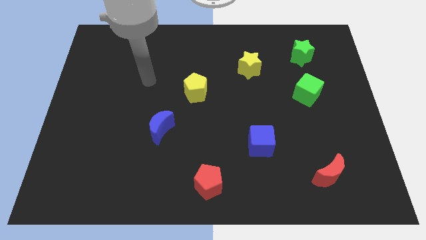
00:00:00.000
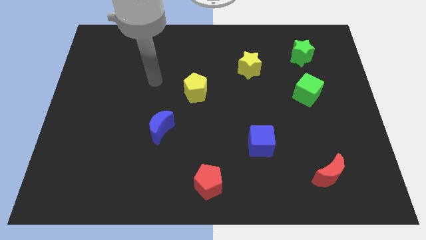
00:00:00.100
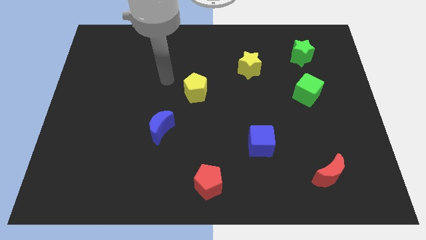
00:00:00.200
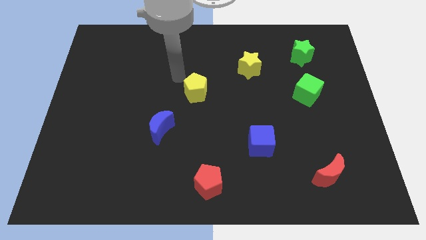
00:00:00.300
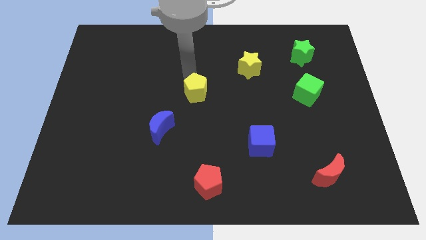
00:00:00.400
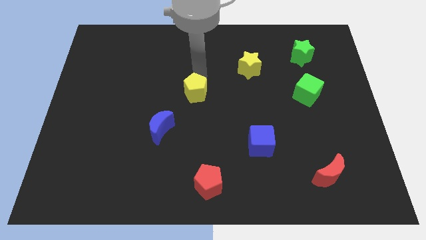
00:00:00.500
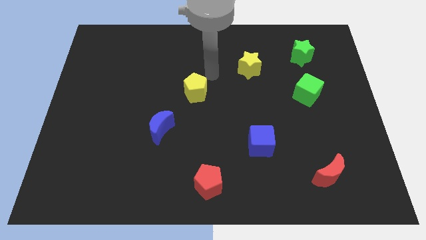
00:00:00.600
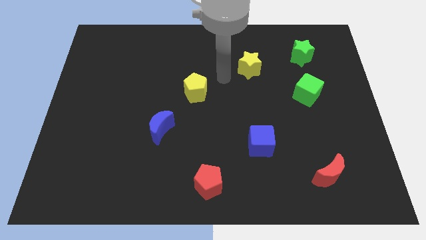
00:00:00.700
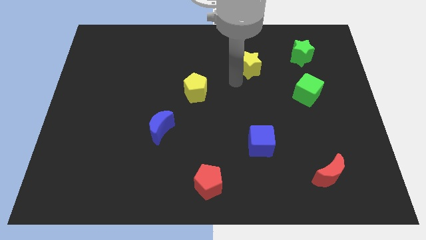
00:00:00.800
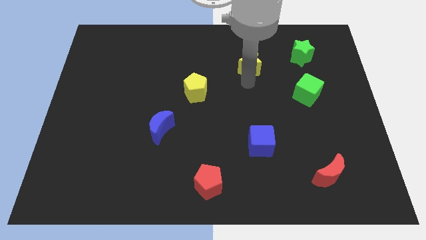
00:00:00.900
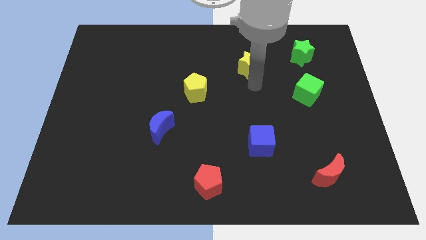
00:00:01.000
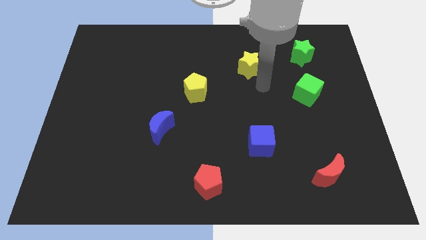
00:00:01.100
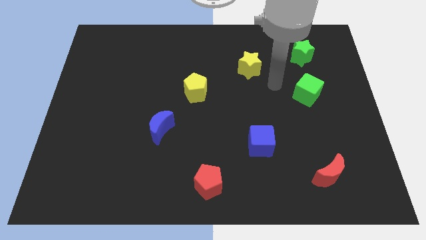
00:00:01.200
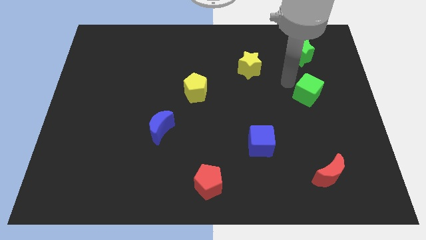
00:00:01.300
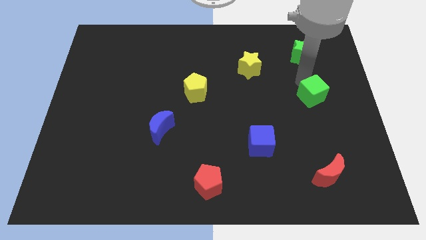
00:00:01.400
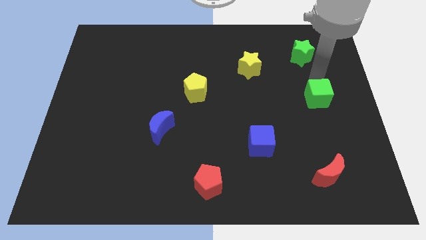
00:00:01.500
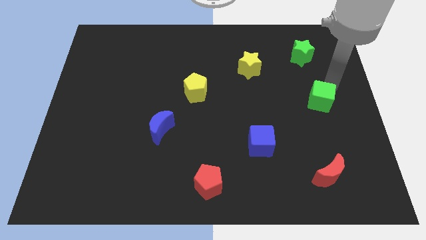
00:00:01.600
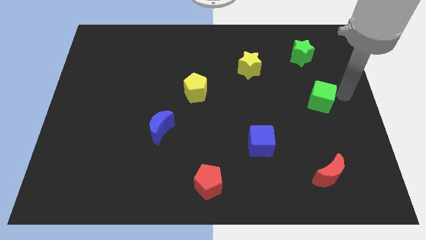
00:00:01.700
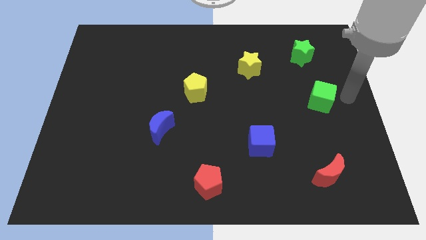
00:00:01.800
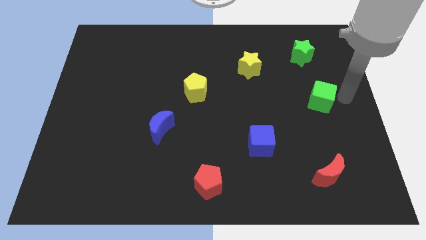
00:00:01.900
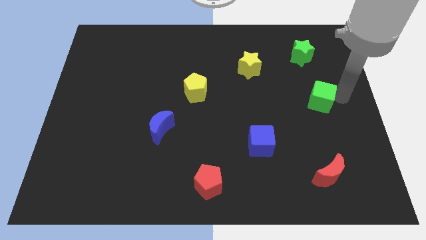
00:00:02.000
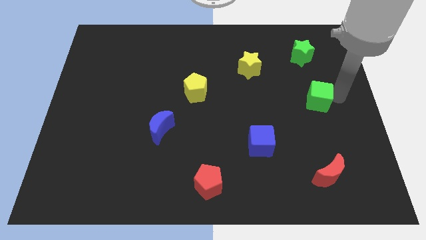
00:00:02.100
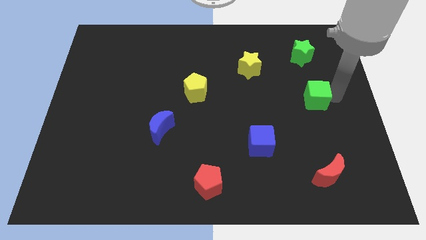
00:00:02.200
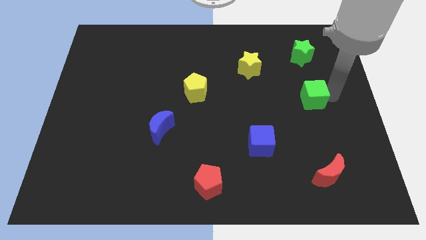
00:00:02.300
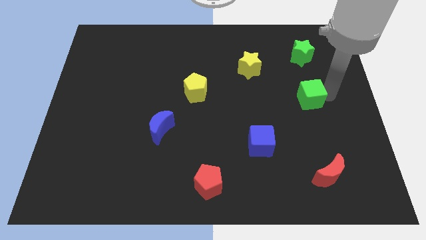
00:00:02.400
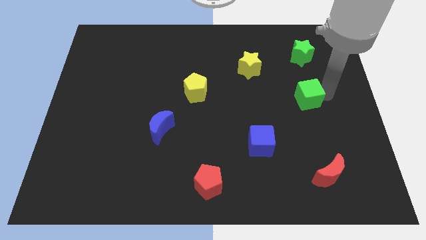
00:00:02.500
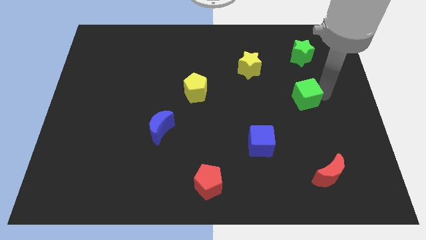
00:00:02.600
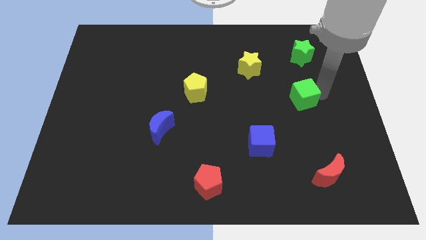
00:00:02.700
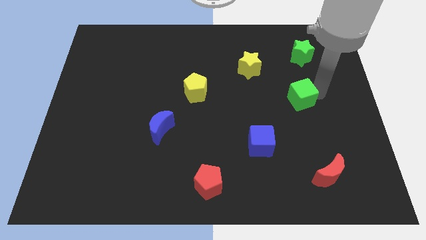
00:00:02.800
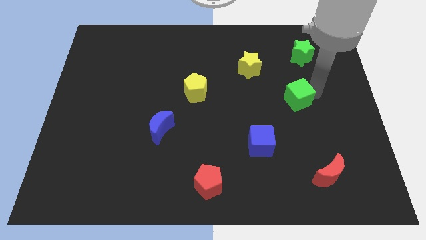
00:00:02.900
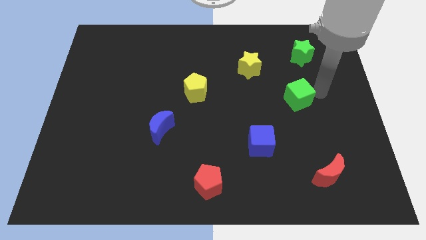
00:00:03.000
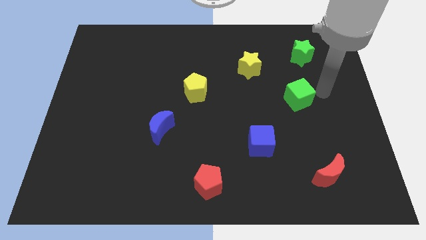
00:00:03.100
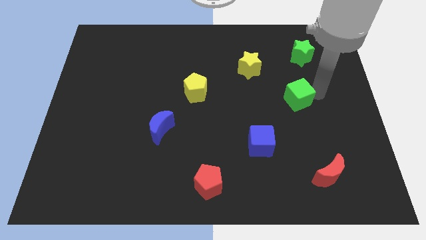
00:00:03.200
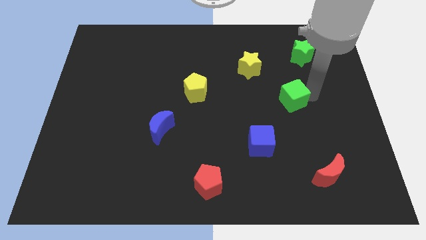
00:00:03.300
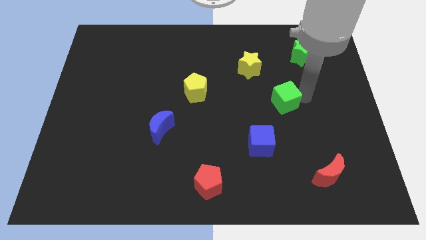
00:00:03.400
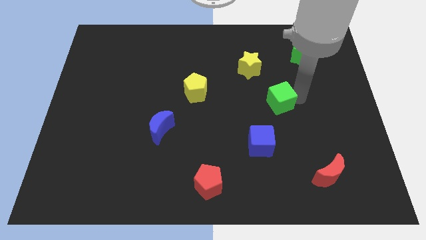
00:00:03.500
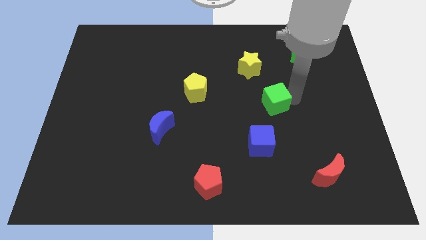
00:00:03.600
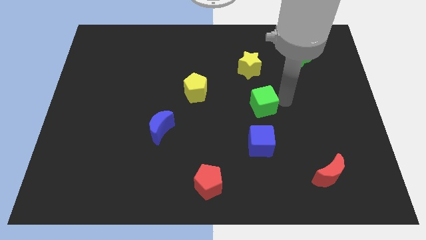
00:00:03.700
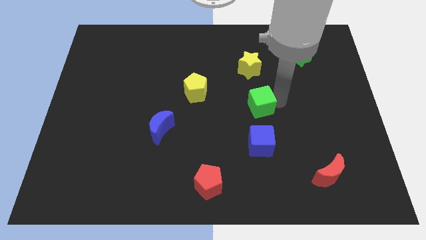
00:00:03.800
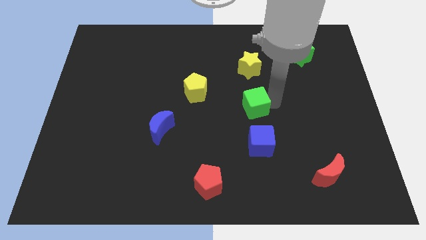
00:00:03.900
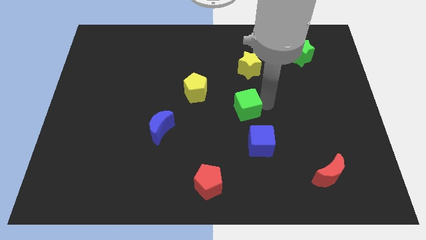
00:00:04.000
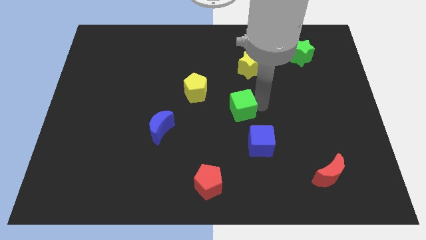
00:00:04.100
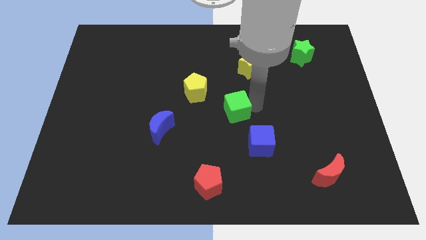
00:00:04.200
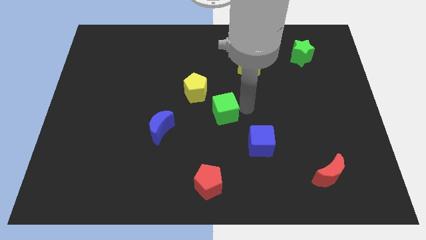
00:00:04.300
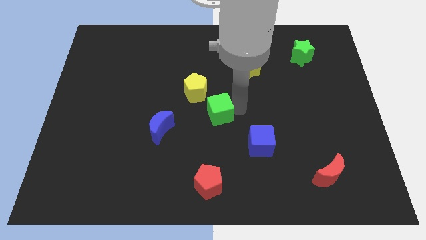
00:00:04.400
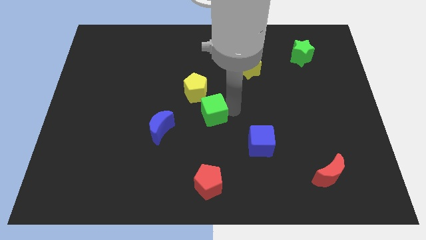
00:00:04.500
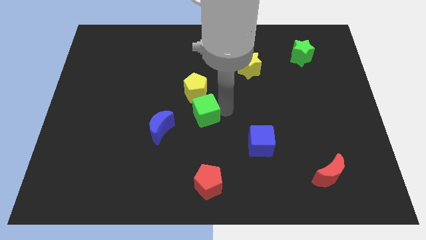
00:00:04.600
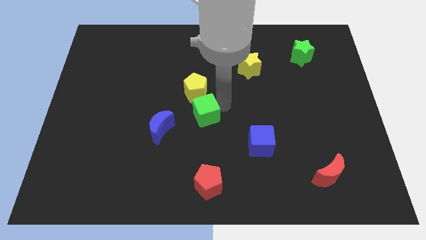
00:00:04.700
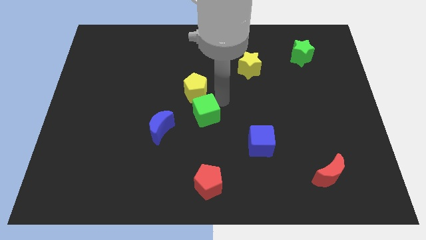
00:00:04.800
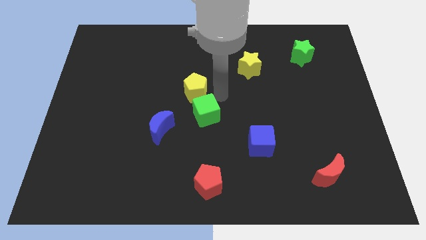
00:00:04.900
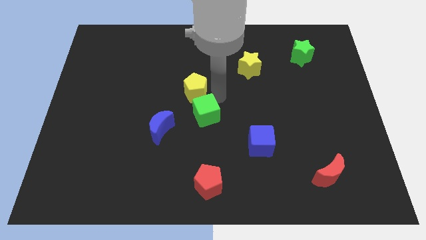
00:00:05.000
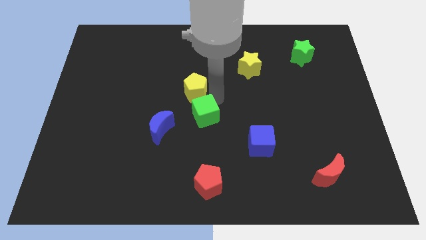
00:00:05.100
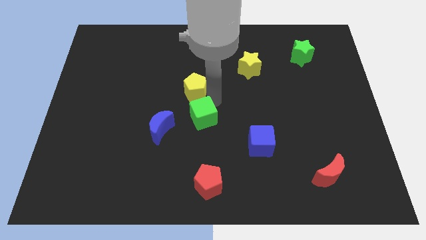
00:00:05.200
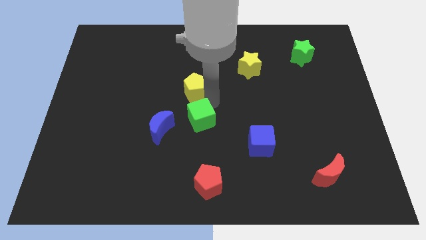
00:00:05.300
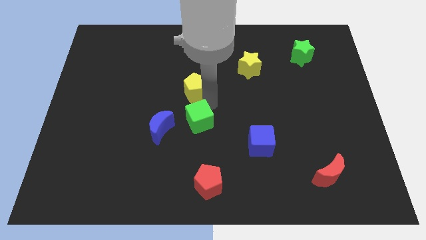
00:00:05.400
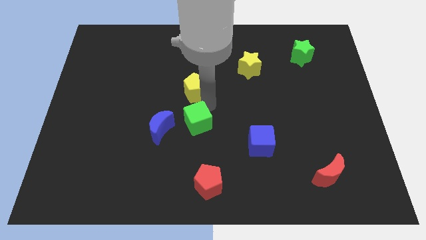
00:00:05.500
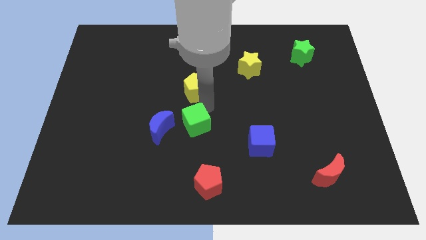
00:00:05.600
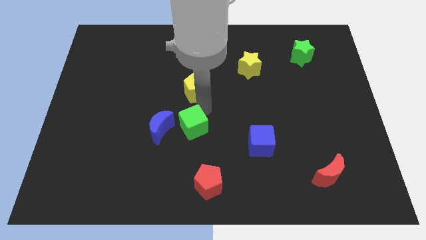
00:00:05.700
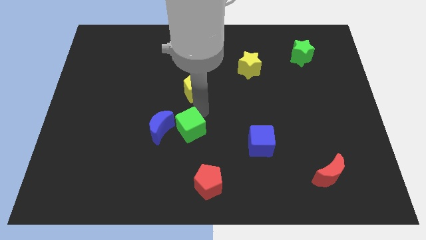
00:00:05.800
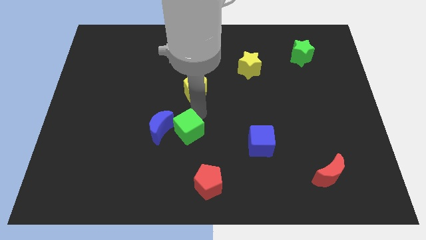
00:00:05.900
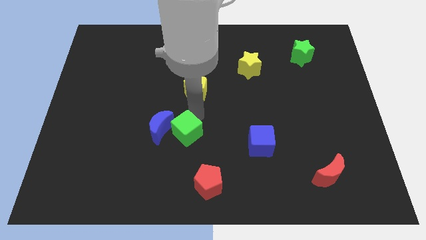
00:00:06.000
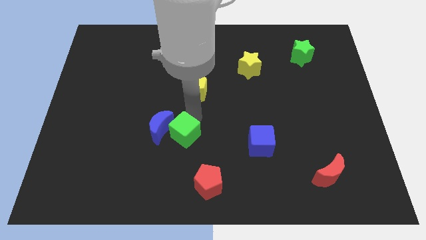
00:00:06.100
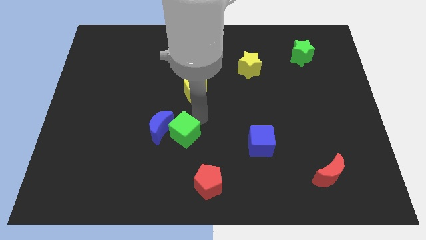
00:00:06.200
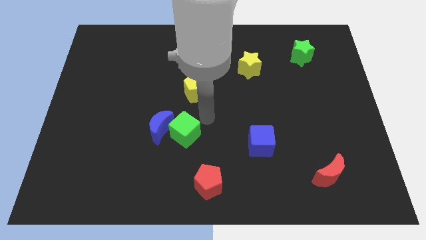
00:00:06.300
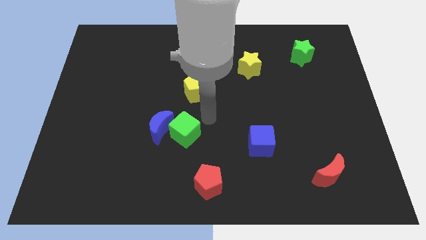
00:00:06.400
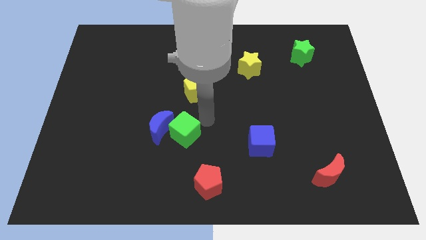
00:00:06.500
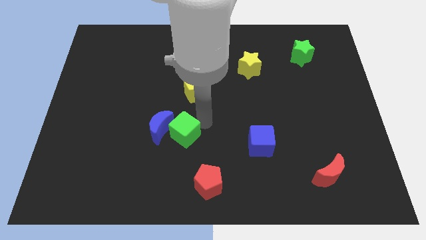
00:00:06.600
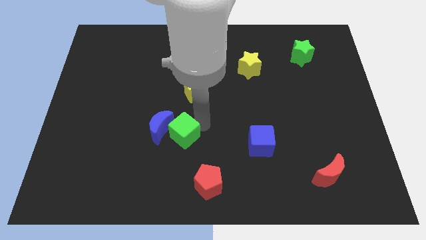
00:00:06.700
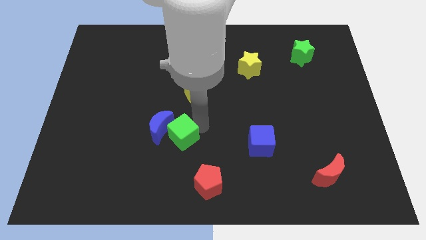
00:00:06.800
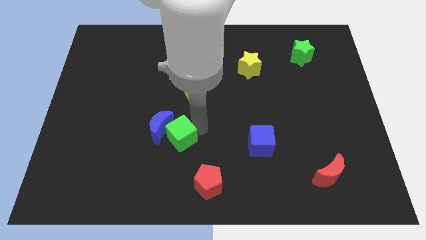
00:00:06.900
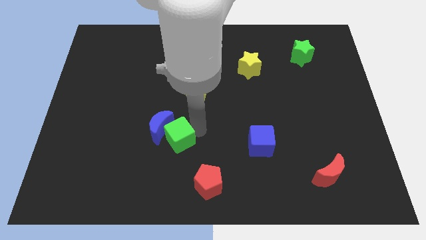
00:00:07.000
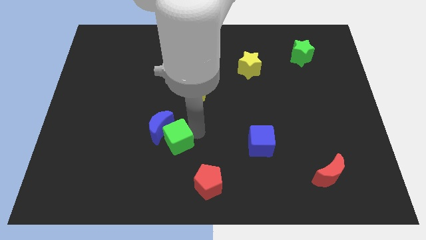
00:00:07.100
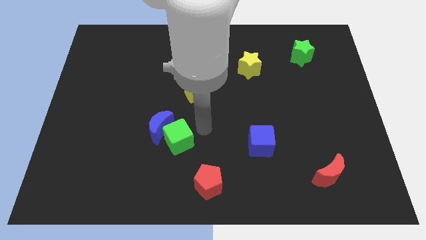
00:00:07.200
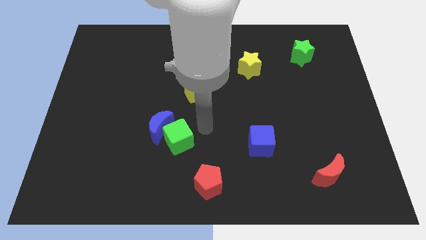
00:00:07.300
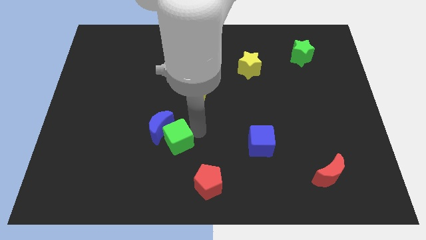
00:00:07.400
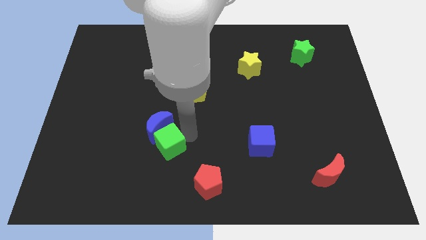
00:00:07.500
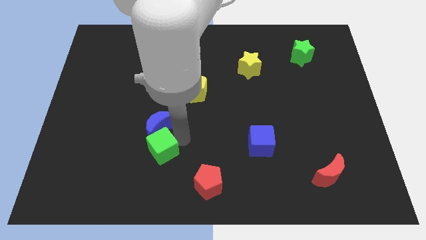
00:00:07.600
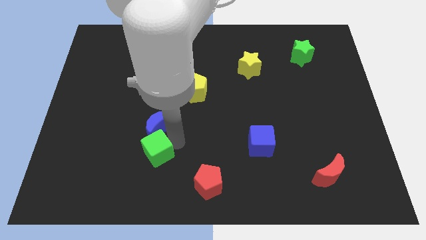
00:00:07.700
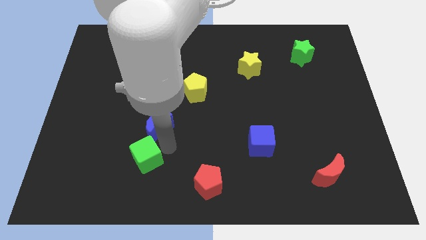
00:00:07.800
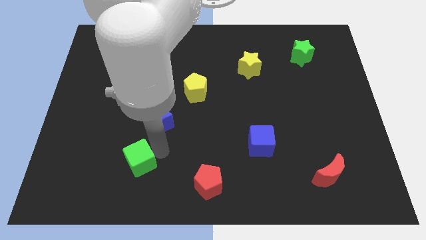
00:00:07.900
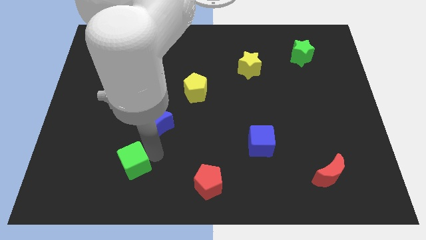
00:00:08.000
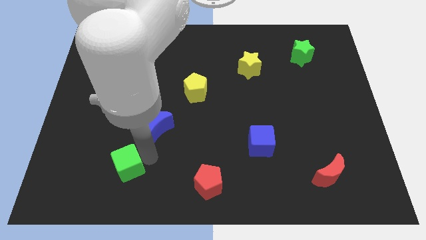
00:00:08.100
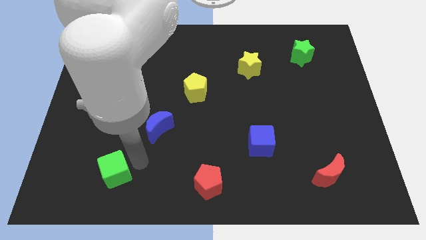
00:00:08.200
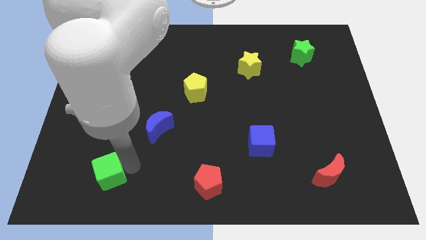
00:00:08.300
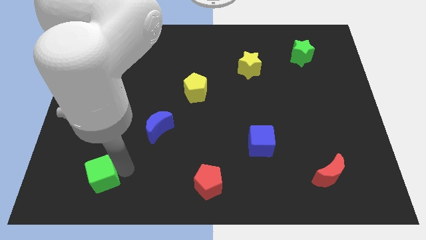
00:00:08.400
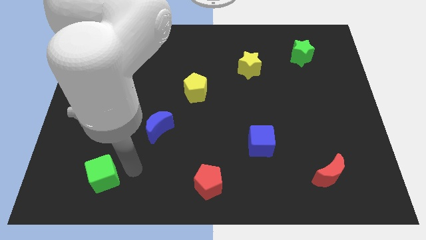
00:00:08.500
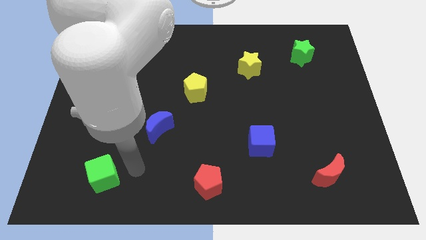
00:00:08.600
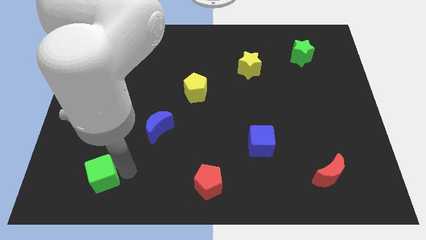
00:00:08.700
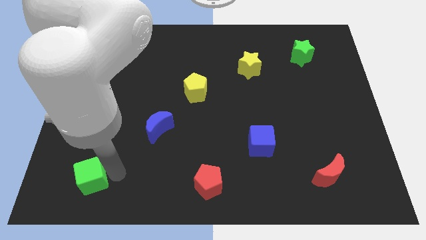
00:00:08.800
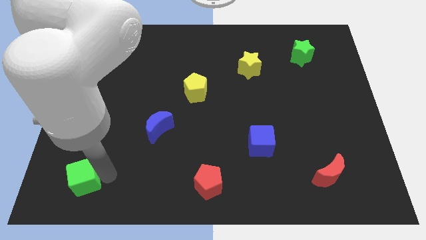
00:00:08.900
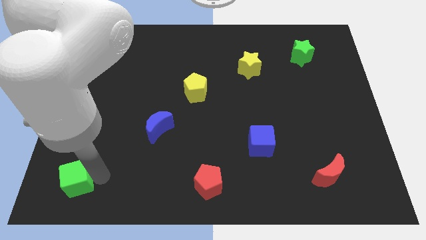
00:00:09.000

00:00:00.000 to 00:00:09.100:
move the green cube to the lower left corner
